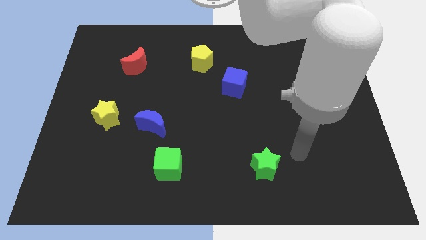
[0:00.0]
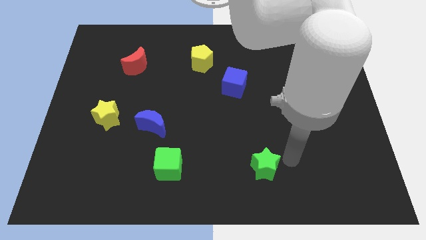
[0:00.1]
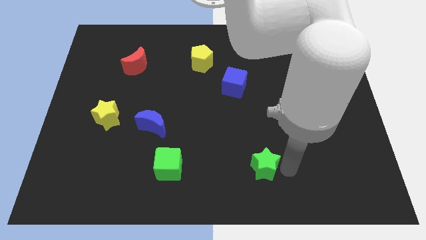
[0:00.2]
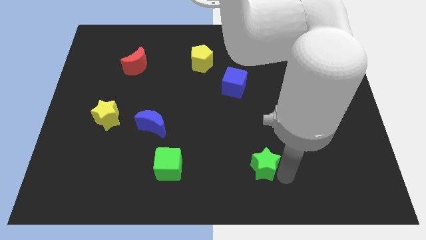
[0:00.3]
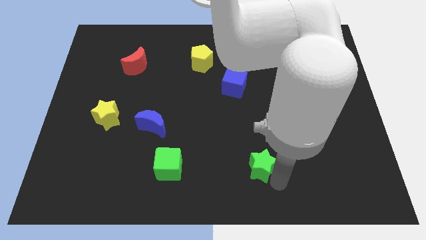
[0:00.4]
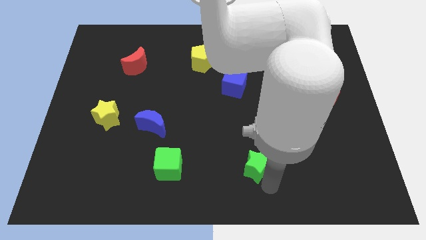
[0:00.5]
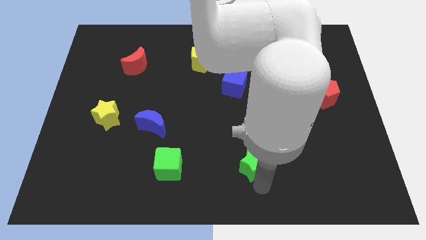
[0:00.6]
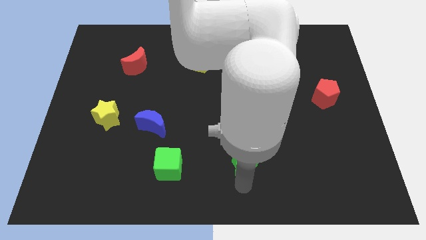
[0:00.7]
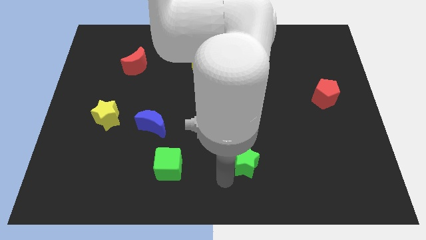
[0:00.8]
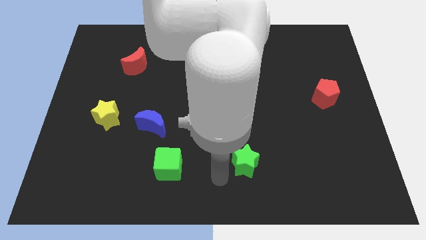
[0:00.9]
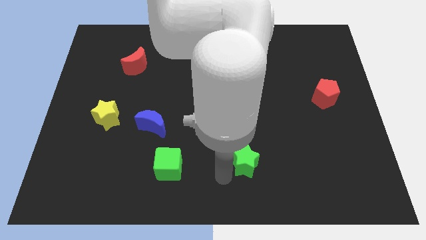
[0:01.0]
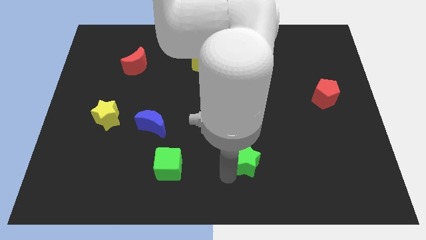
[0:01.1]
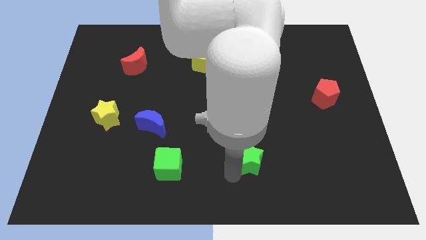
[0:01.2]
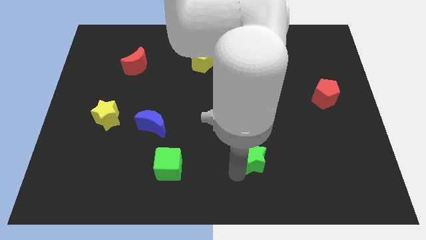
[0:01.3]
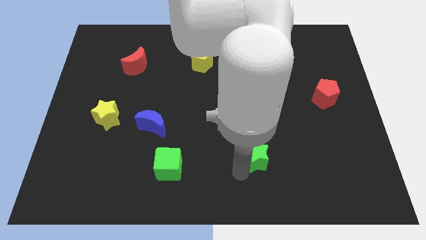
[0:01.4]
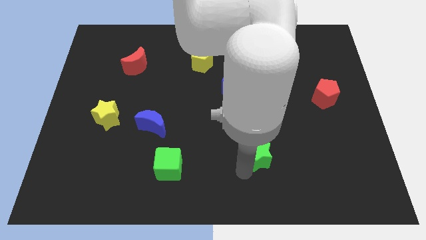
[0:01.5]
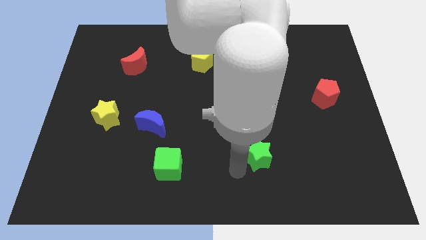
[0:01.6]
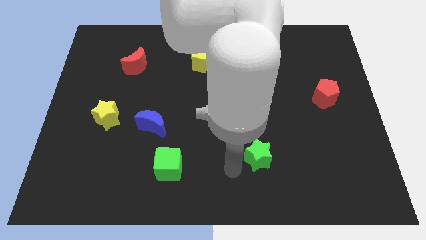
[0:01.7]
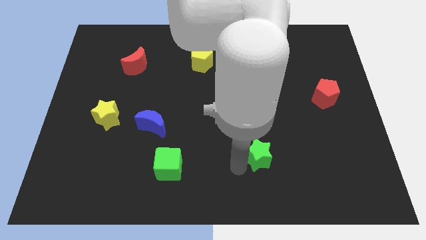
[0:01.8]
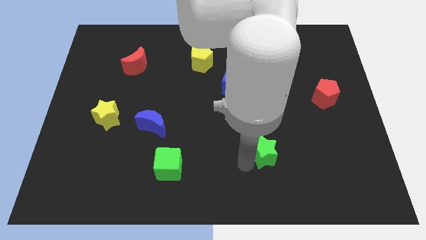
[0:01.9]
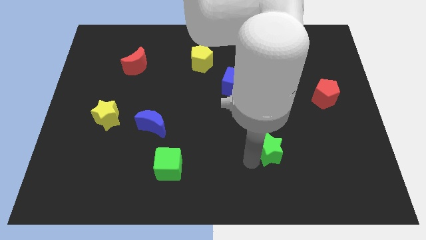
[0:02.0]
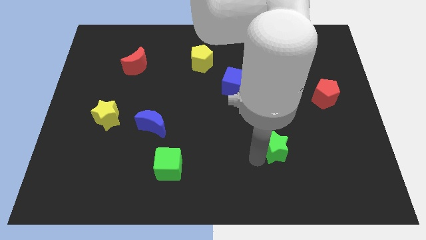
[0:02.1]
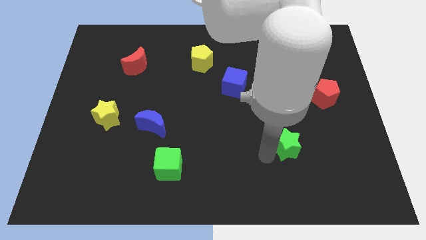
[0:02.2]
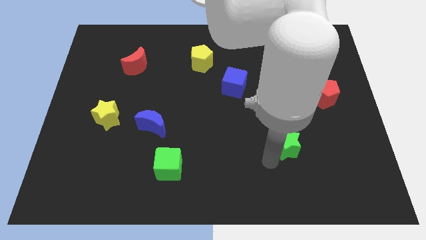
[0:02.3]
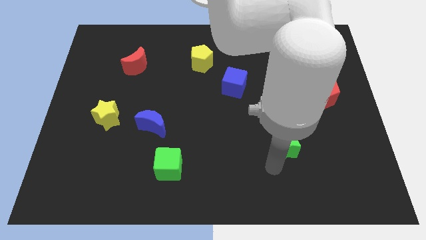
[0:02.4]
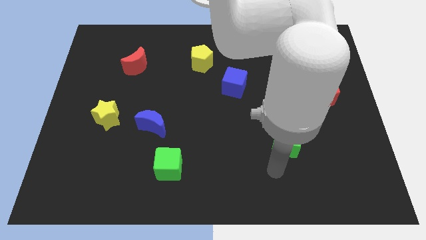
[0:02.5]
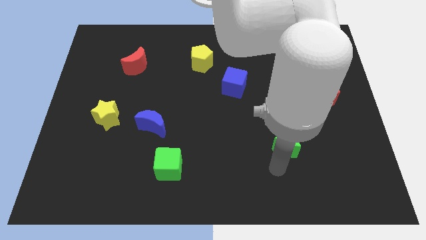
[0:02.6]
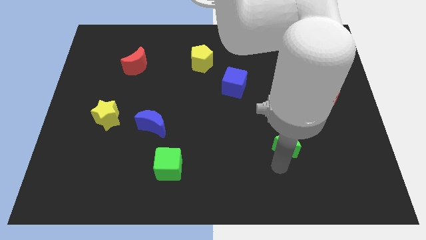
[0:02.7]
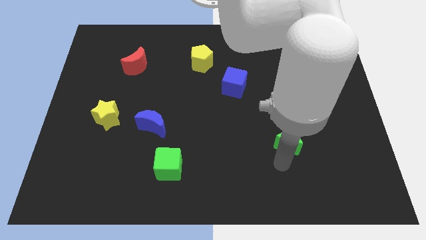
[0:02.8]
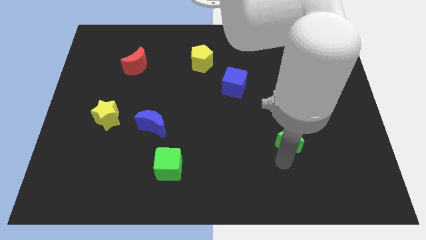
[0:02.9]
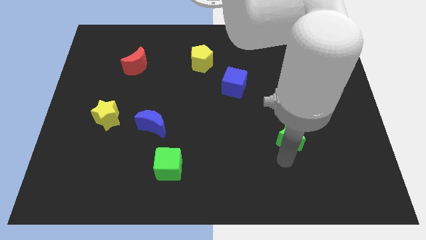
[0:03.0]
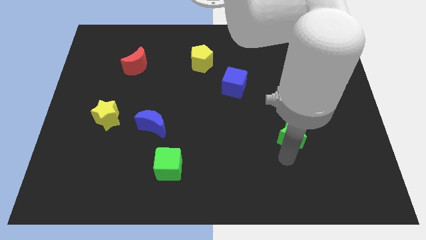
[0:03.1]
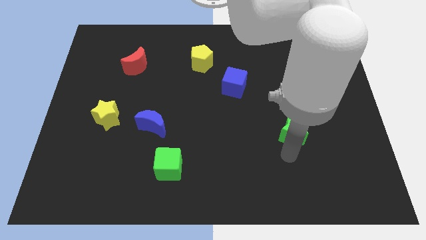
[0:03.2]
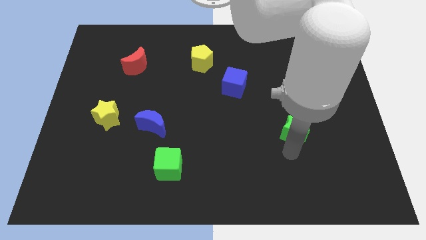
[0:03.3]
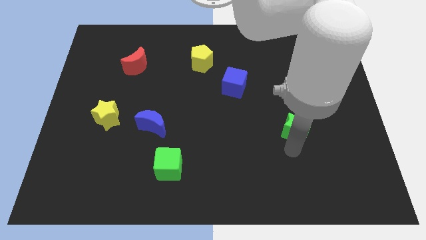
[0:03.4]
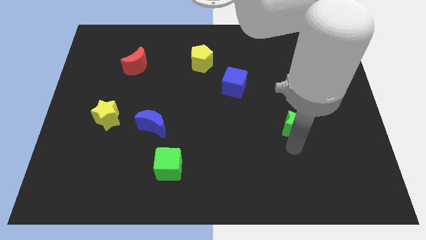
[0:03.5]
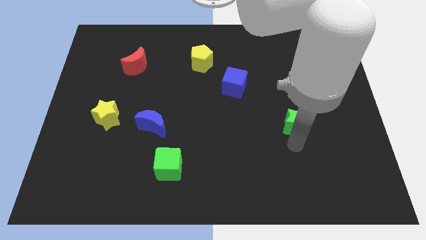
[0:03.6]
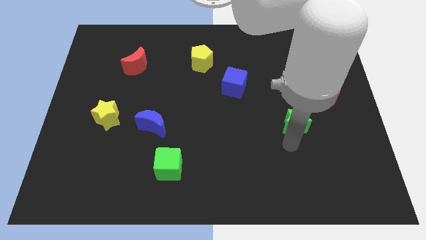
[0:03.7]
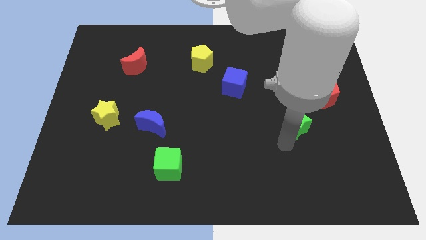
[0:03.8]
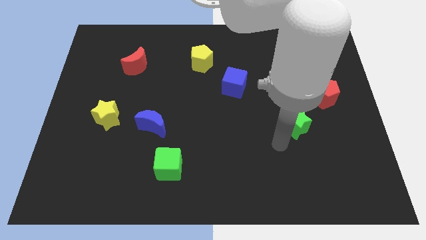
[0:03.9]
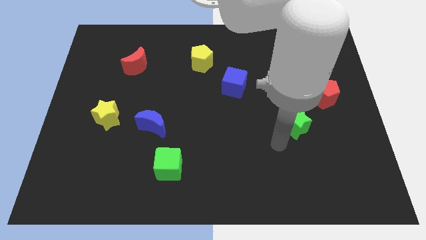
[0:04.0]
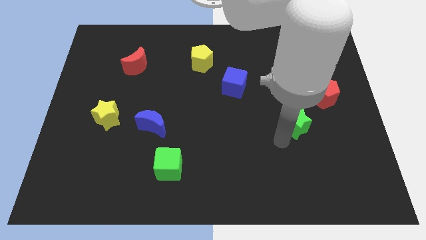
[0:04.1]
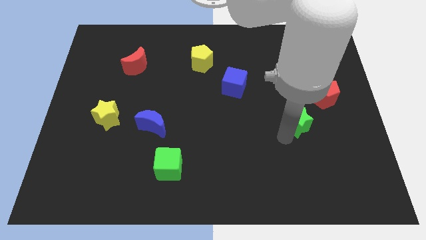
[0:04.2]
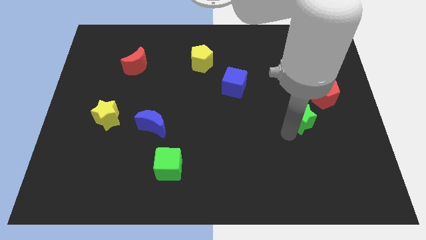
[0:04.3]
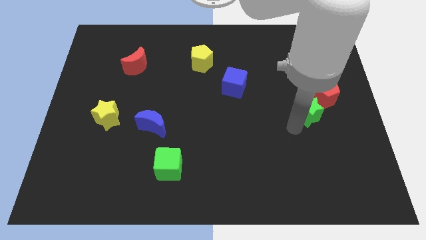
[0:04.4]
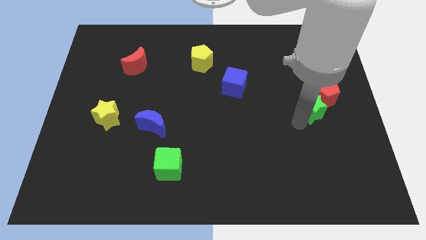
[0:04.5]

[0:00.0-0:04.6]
slide the green star to the red pentagon

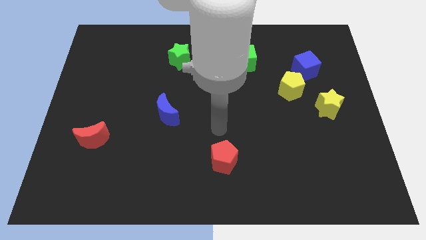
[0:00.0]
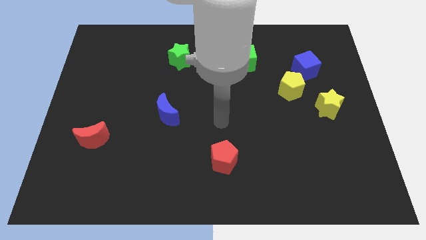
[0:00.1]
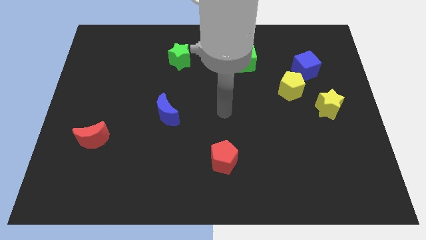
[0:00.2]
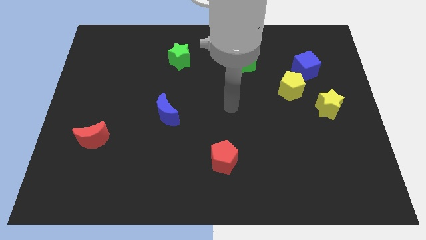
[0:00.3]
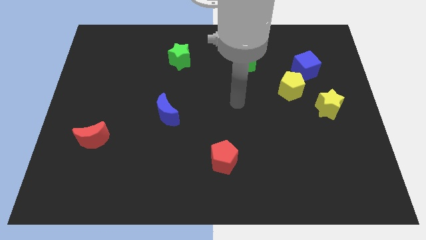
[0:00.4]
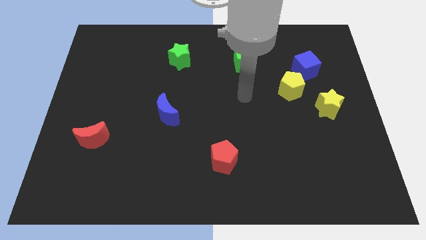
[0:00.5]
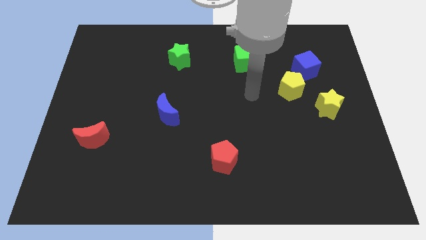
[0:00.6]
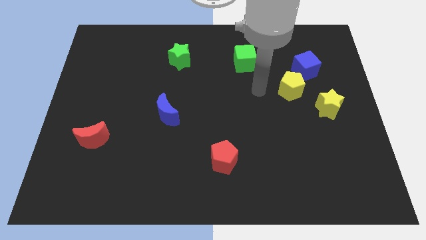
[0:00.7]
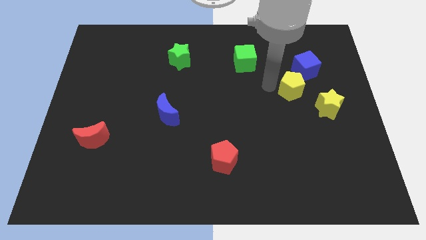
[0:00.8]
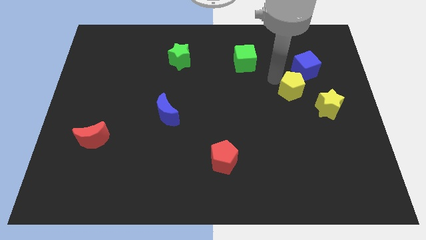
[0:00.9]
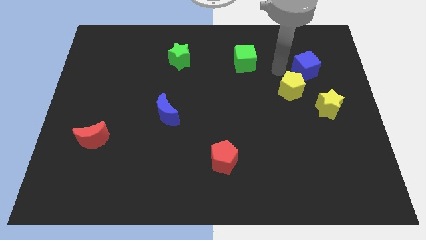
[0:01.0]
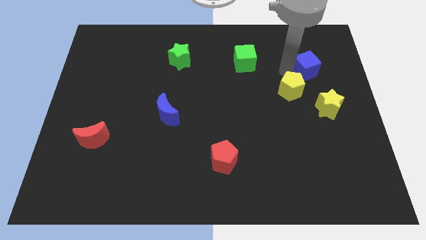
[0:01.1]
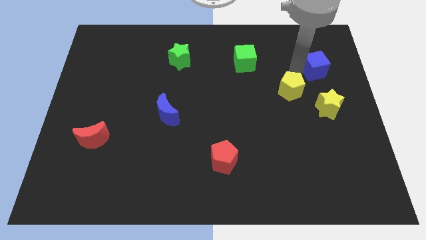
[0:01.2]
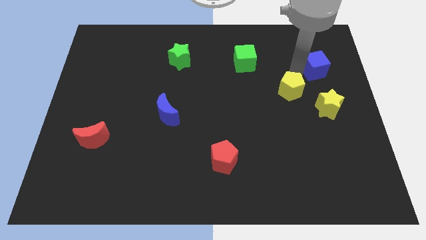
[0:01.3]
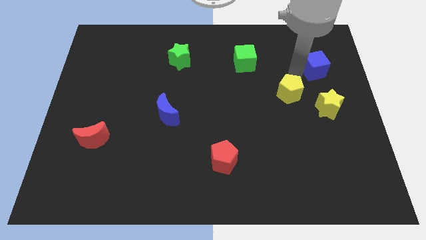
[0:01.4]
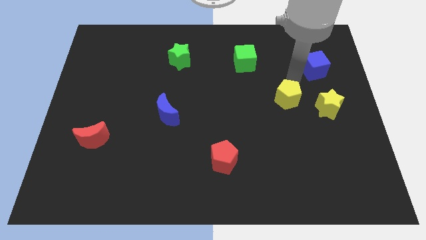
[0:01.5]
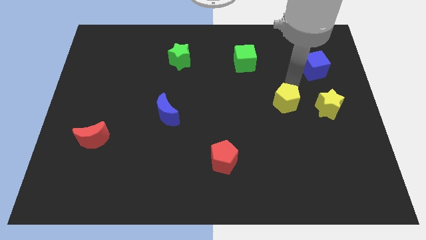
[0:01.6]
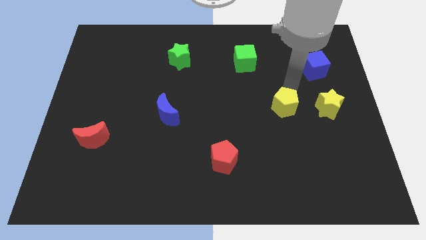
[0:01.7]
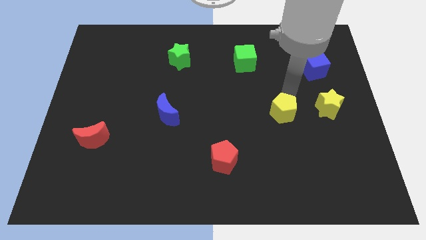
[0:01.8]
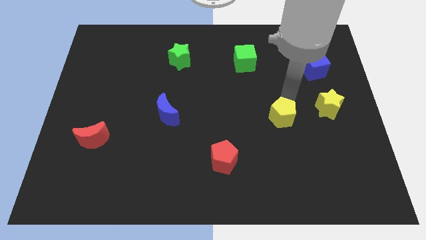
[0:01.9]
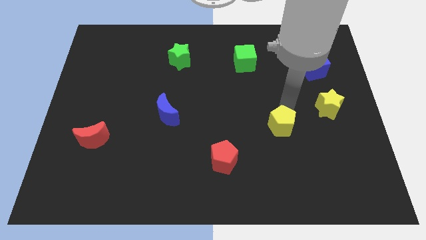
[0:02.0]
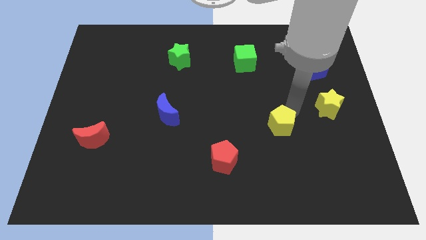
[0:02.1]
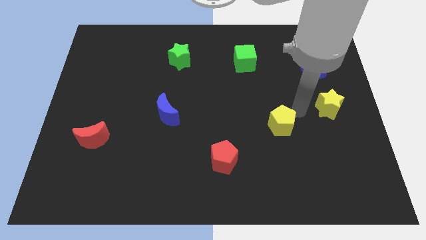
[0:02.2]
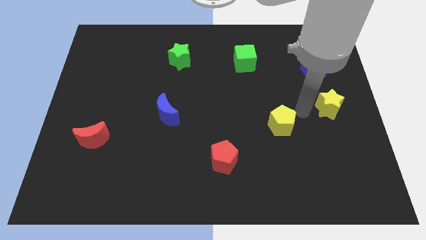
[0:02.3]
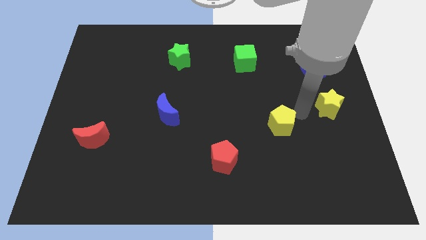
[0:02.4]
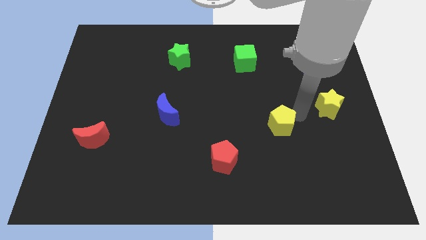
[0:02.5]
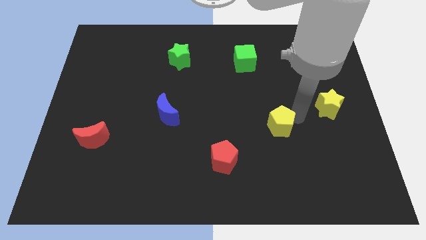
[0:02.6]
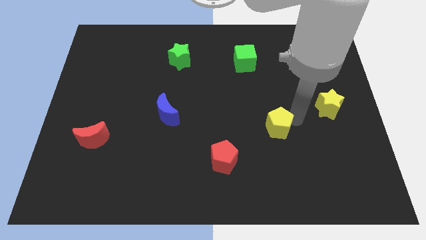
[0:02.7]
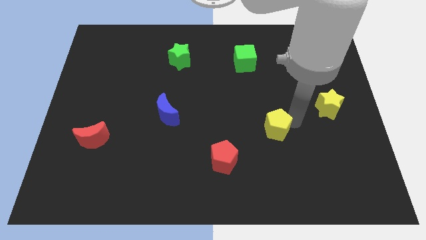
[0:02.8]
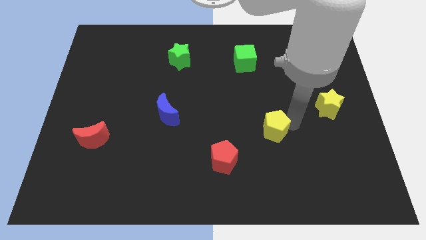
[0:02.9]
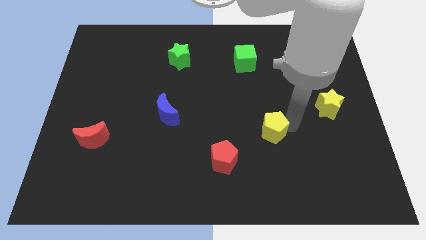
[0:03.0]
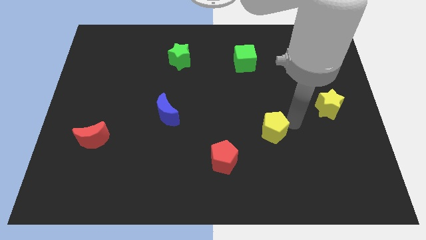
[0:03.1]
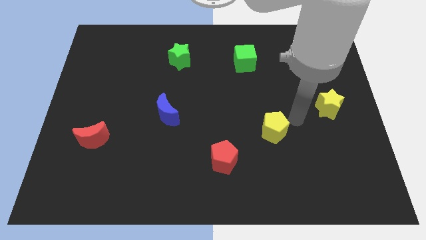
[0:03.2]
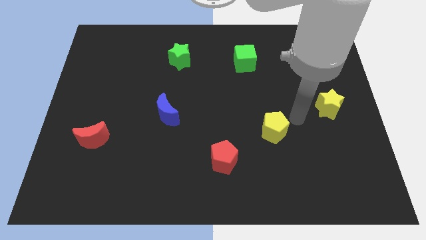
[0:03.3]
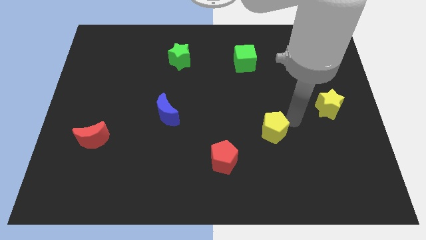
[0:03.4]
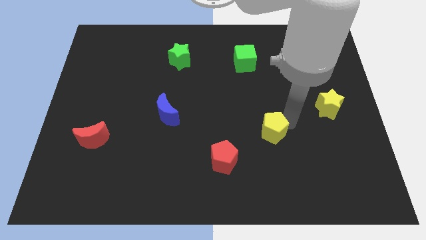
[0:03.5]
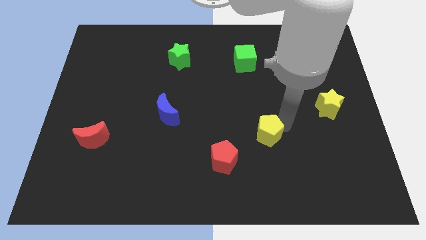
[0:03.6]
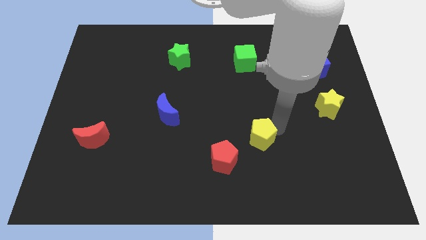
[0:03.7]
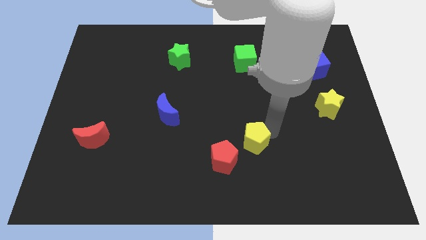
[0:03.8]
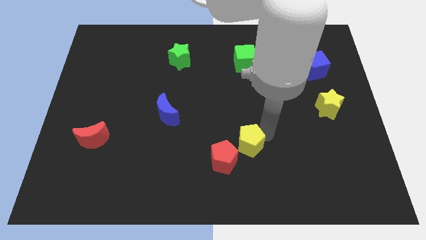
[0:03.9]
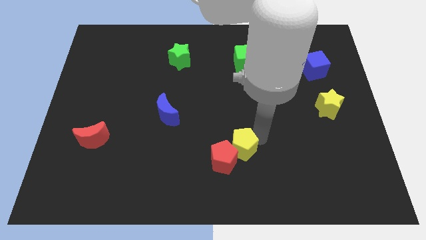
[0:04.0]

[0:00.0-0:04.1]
move the yellow pentagon towards the red pentagon
